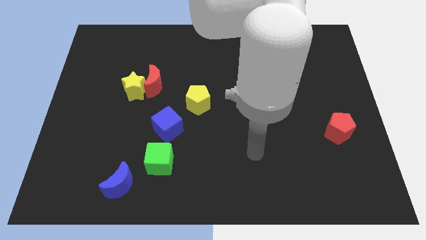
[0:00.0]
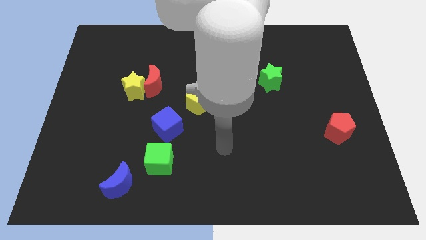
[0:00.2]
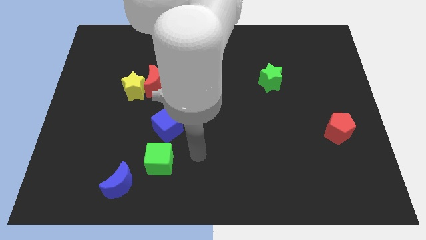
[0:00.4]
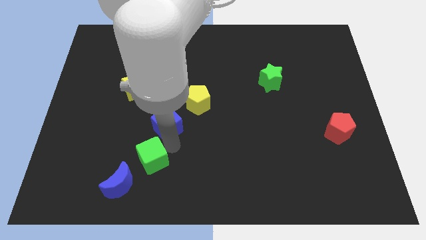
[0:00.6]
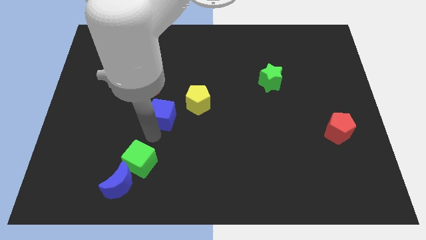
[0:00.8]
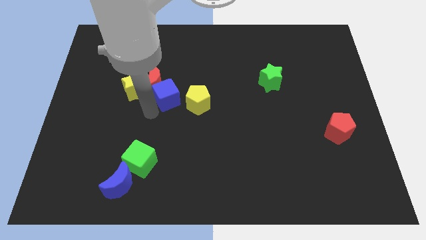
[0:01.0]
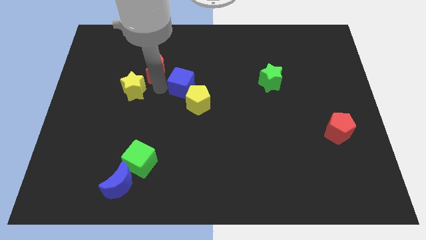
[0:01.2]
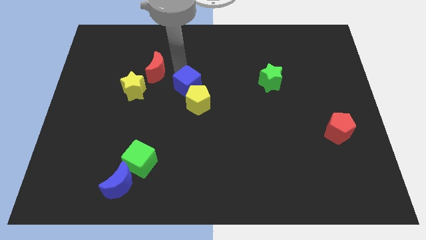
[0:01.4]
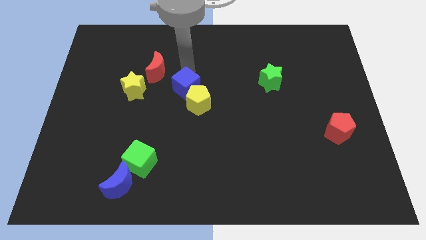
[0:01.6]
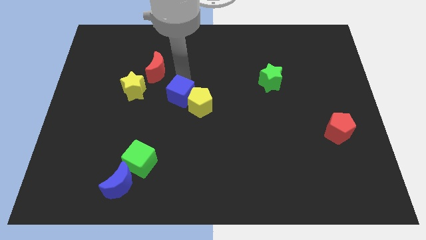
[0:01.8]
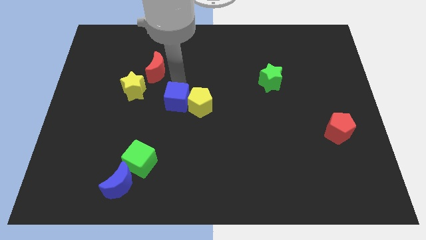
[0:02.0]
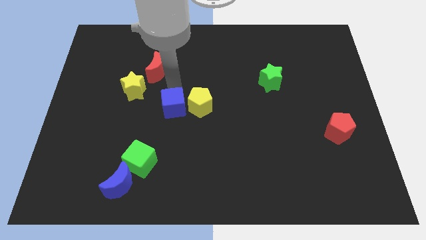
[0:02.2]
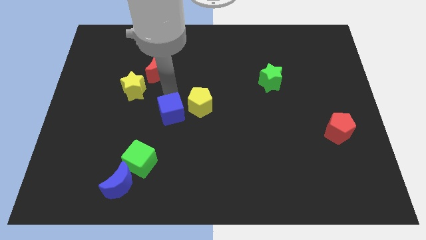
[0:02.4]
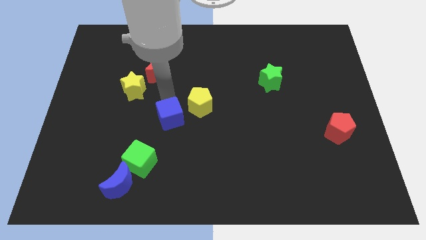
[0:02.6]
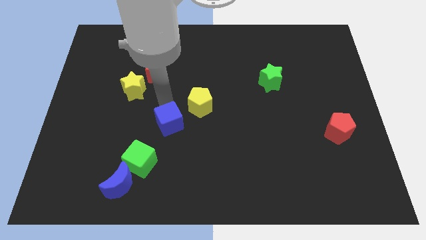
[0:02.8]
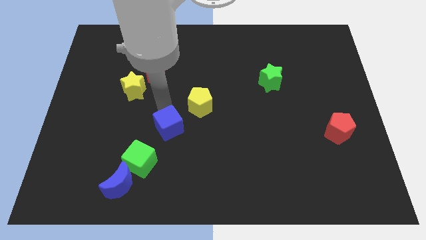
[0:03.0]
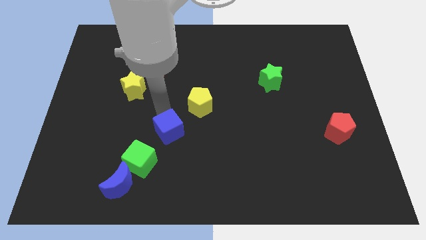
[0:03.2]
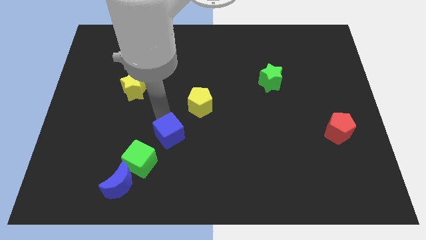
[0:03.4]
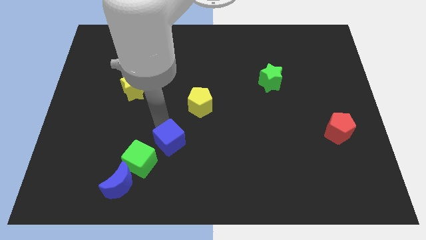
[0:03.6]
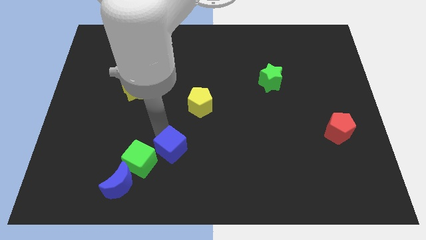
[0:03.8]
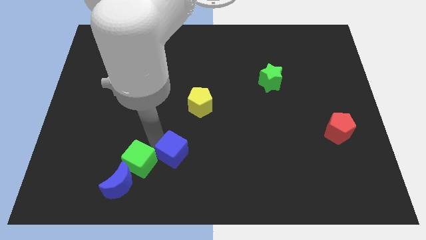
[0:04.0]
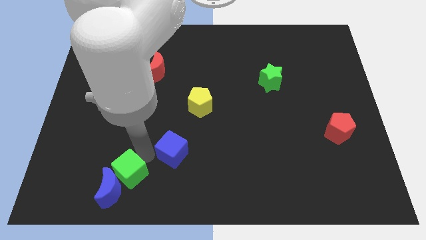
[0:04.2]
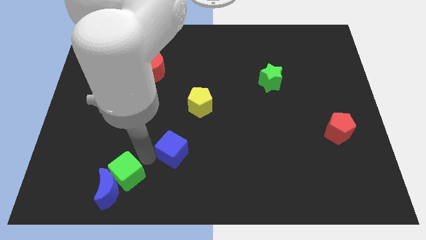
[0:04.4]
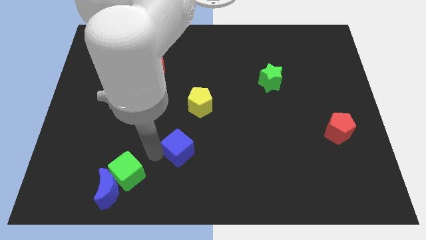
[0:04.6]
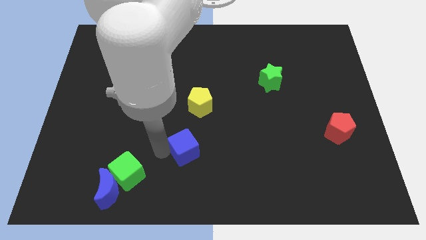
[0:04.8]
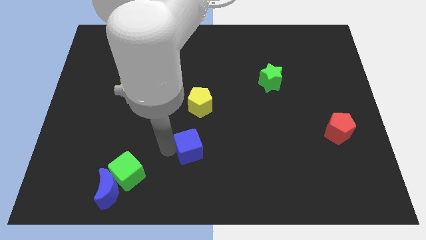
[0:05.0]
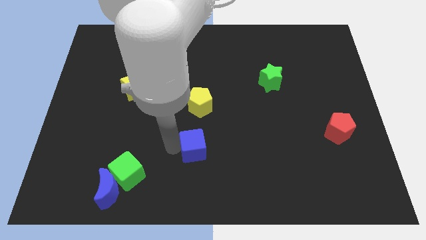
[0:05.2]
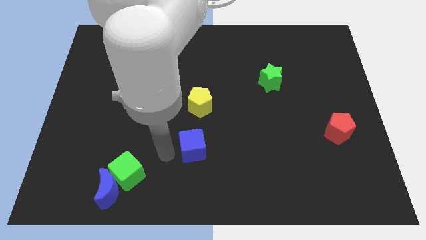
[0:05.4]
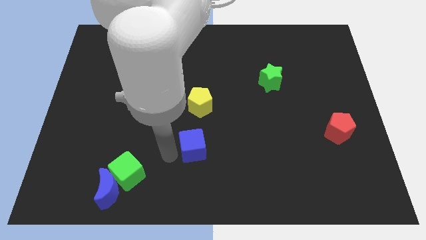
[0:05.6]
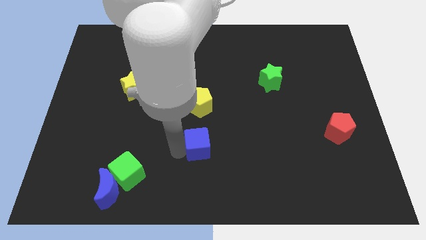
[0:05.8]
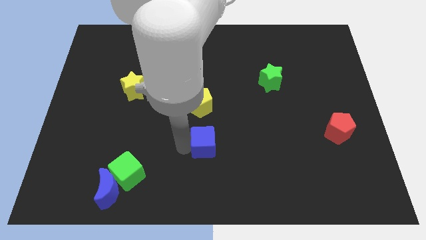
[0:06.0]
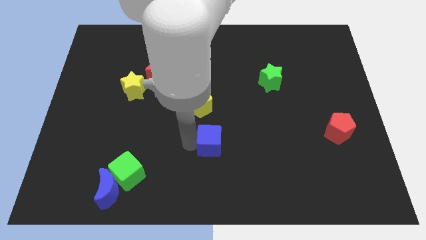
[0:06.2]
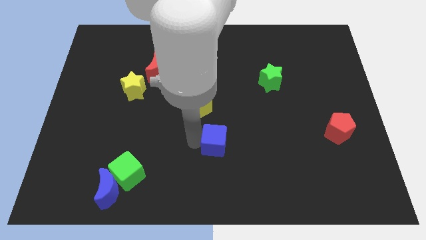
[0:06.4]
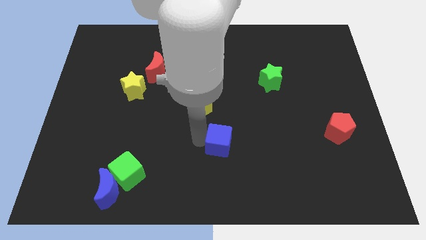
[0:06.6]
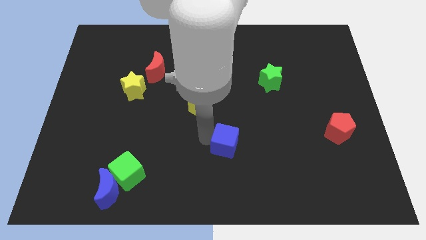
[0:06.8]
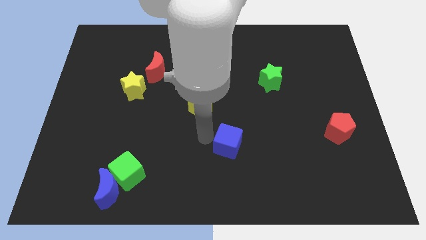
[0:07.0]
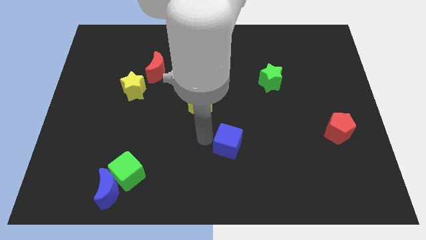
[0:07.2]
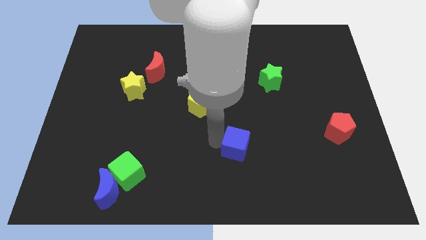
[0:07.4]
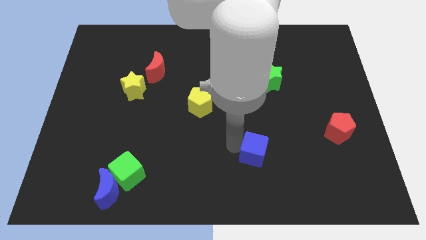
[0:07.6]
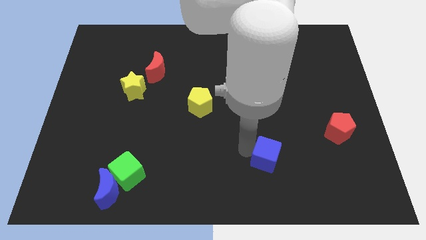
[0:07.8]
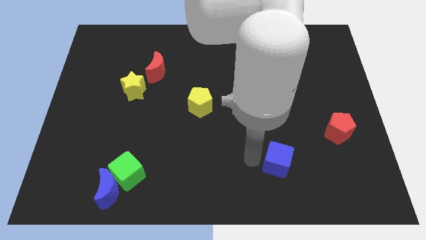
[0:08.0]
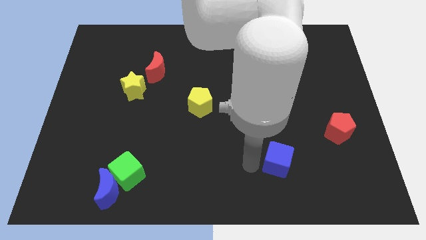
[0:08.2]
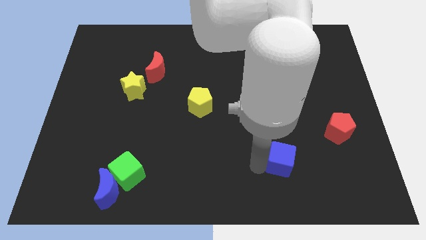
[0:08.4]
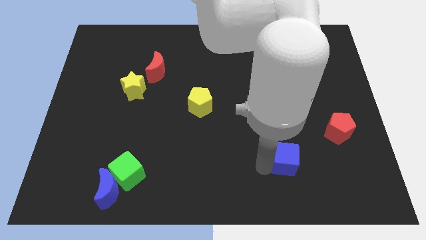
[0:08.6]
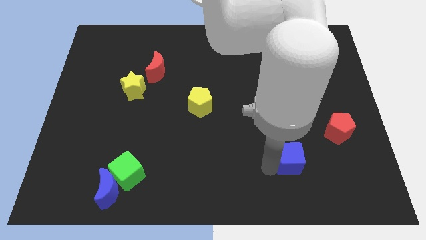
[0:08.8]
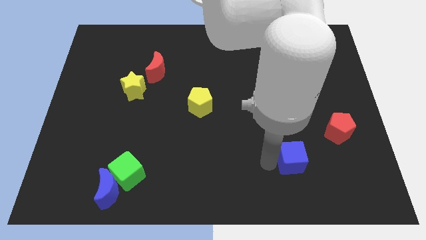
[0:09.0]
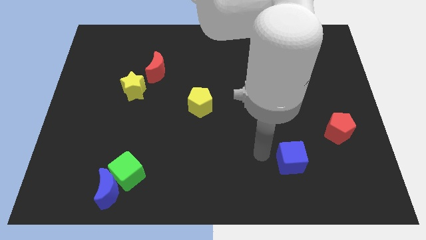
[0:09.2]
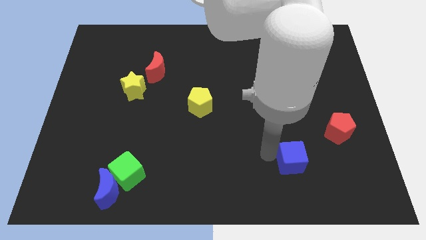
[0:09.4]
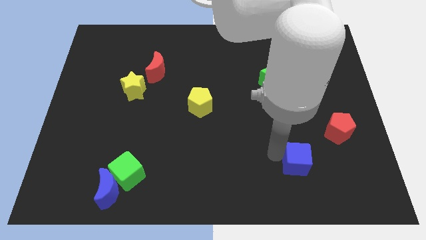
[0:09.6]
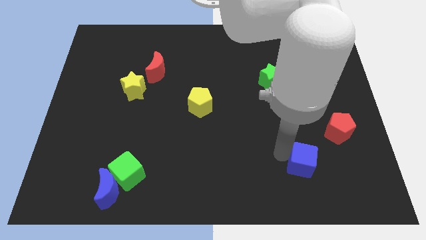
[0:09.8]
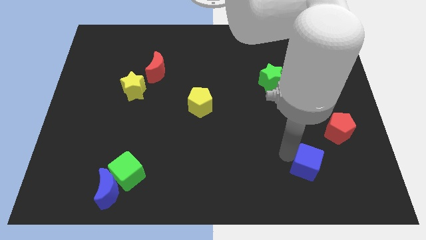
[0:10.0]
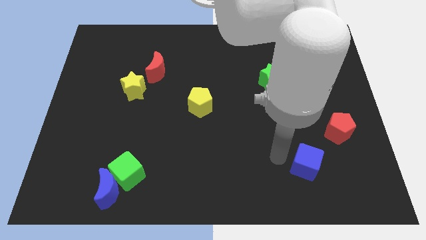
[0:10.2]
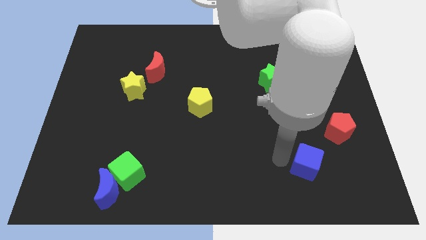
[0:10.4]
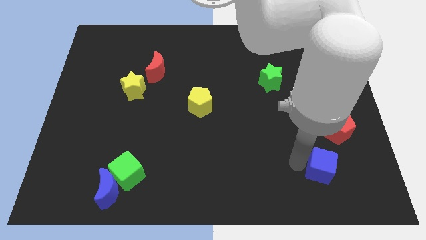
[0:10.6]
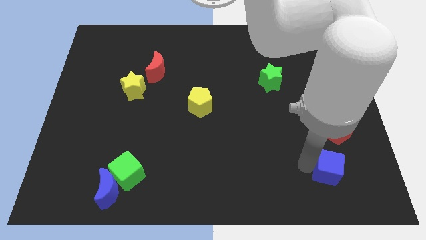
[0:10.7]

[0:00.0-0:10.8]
push the blue cube to the bottom side of the red pentagon

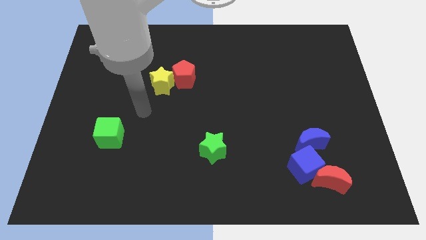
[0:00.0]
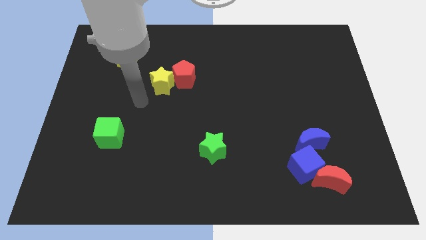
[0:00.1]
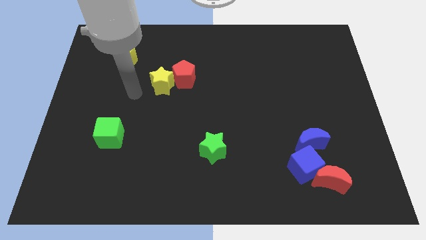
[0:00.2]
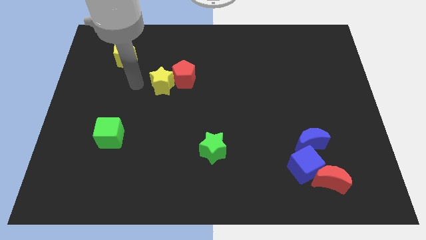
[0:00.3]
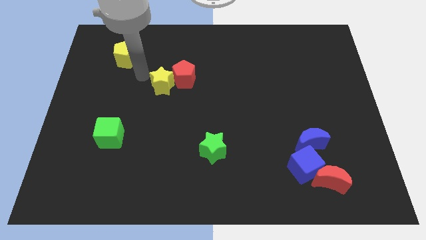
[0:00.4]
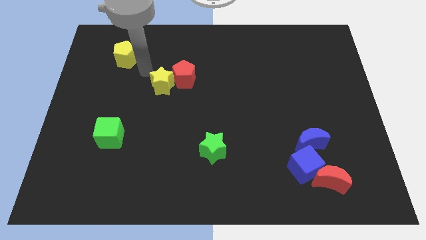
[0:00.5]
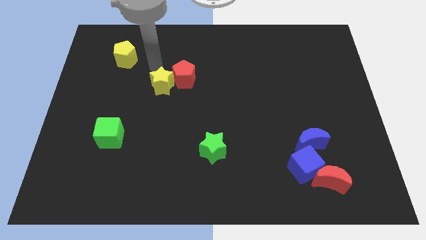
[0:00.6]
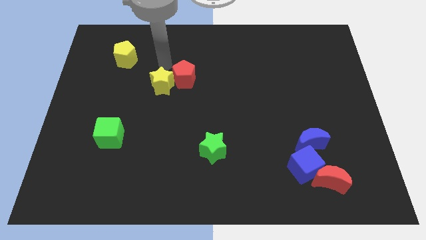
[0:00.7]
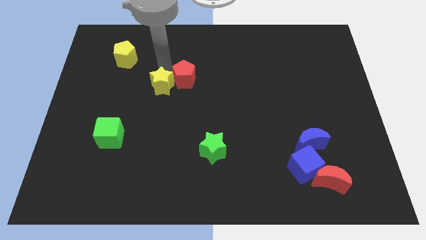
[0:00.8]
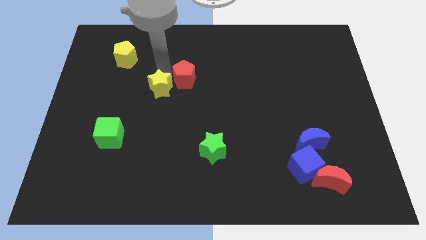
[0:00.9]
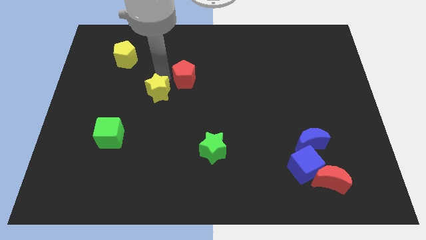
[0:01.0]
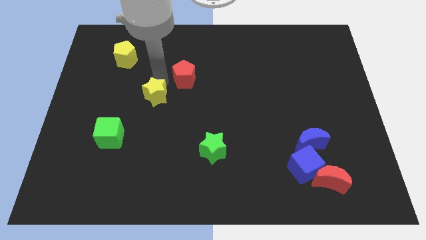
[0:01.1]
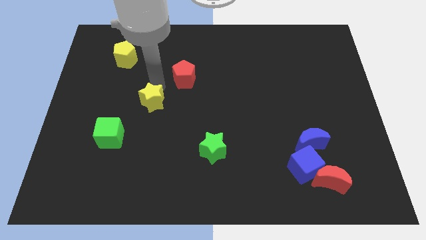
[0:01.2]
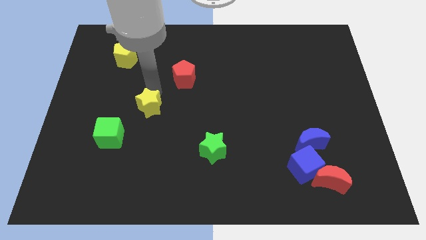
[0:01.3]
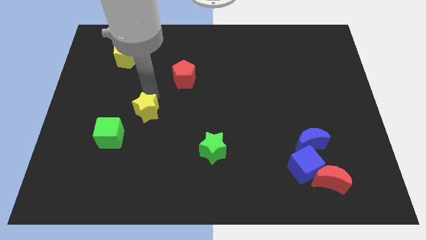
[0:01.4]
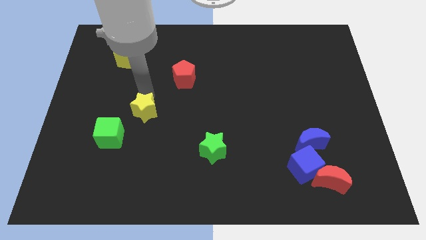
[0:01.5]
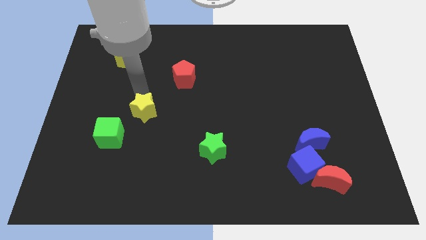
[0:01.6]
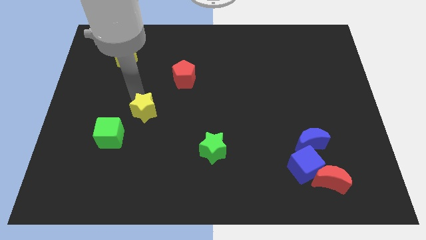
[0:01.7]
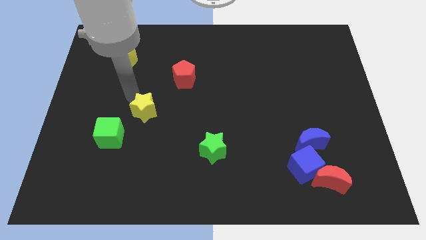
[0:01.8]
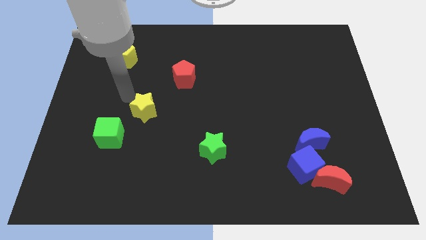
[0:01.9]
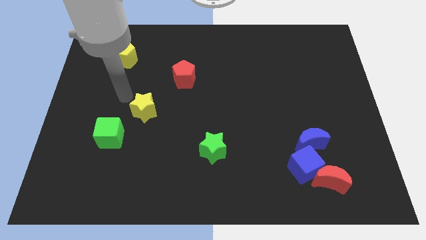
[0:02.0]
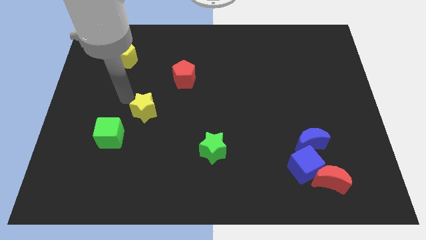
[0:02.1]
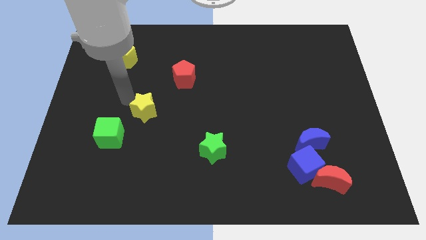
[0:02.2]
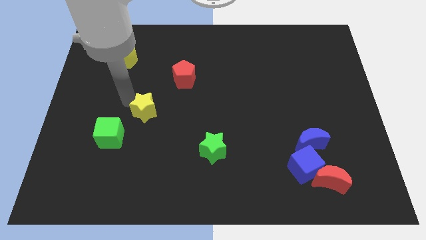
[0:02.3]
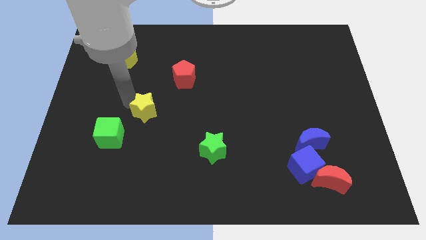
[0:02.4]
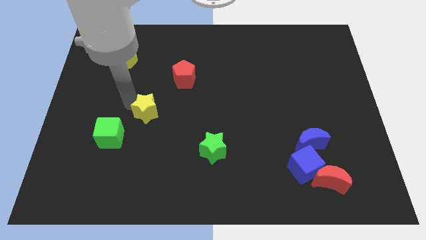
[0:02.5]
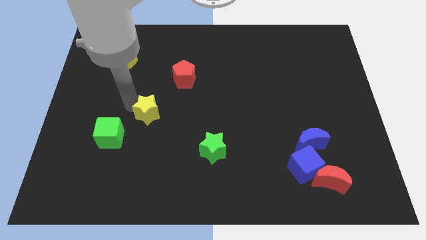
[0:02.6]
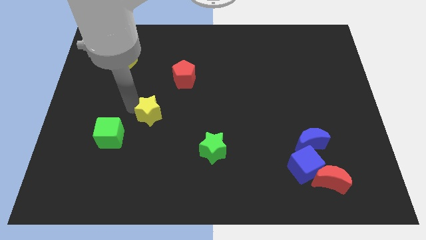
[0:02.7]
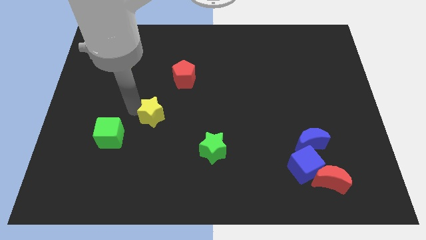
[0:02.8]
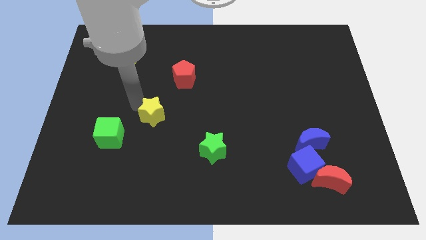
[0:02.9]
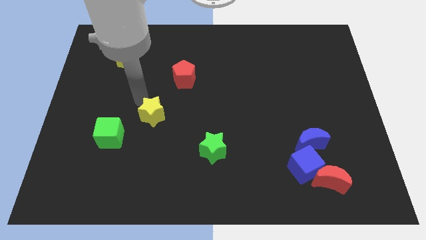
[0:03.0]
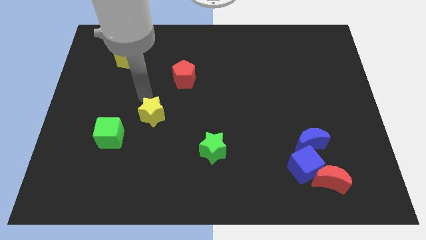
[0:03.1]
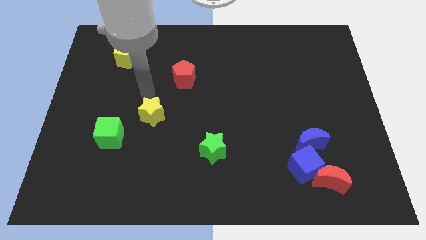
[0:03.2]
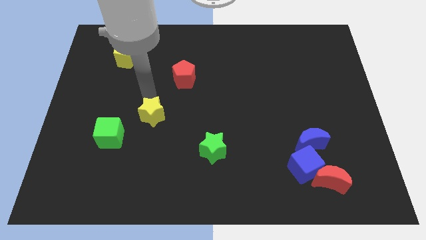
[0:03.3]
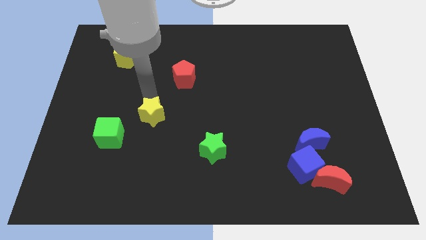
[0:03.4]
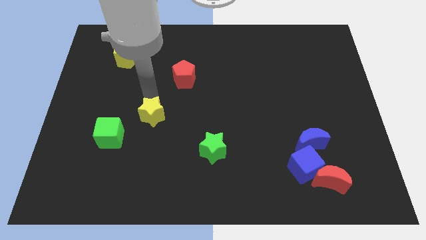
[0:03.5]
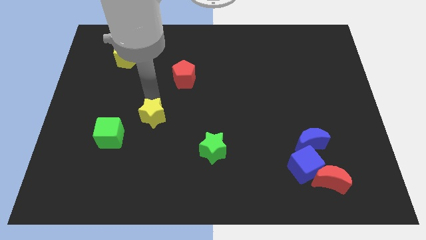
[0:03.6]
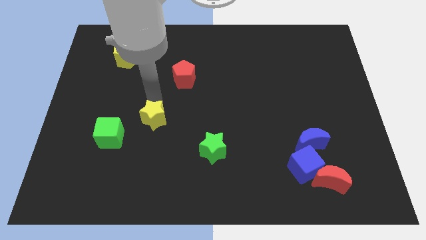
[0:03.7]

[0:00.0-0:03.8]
slide the yellow star to the right side of the green cube
